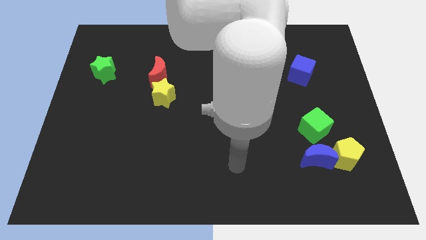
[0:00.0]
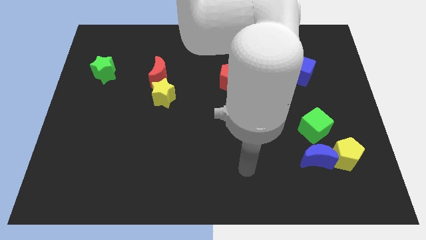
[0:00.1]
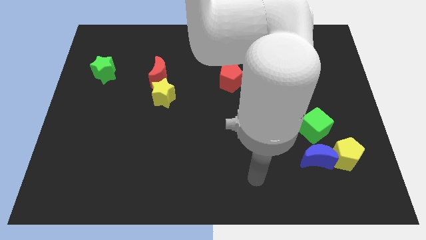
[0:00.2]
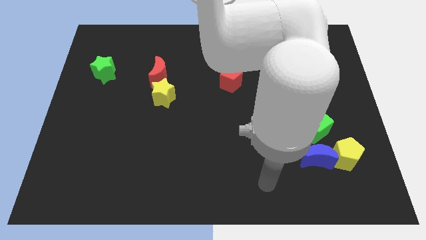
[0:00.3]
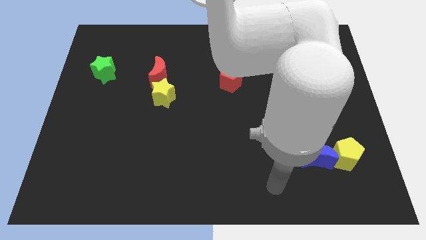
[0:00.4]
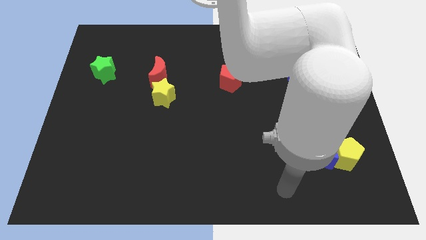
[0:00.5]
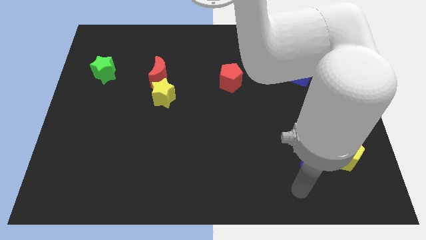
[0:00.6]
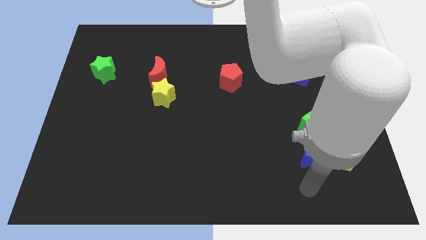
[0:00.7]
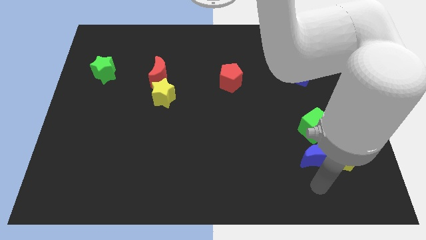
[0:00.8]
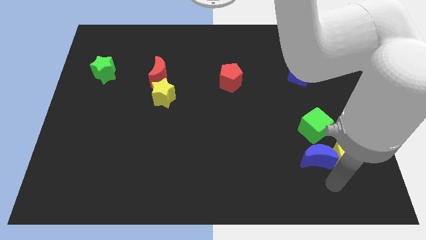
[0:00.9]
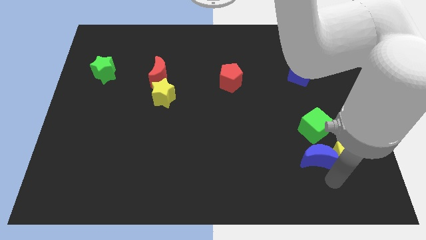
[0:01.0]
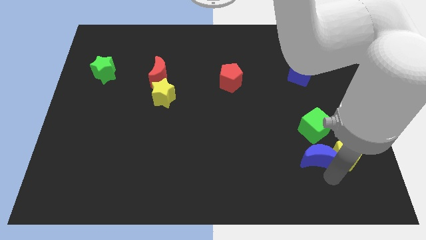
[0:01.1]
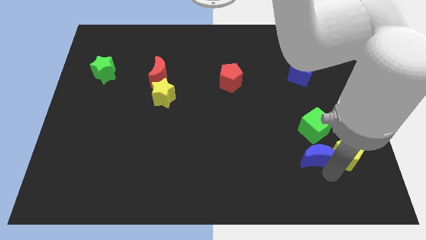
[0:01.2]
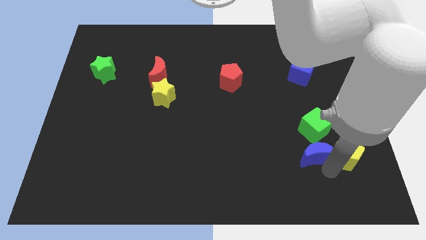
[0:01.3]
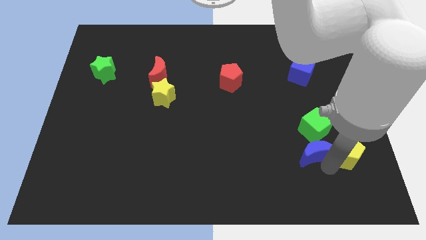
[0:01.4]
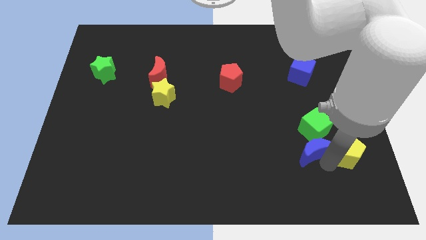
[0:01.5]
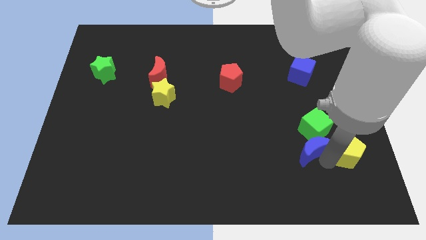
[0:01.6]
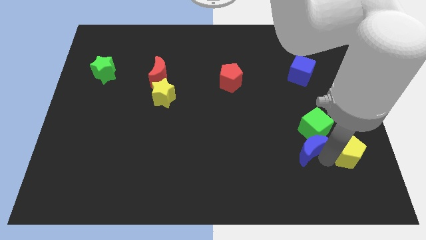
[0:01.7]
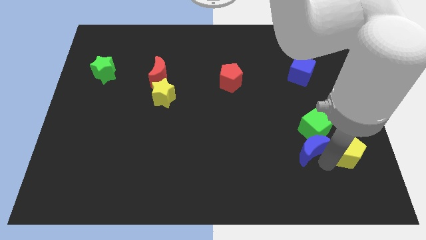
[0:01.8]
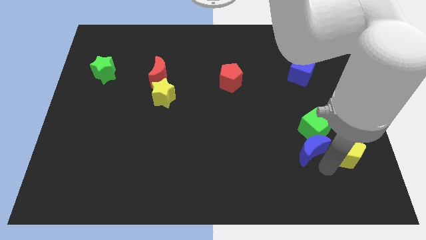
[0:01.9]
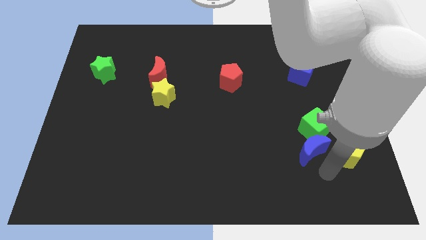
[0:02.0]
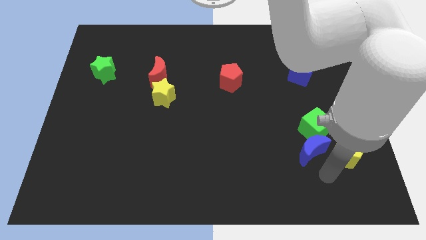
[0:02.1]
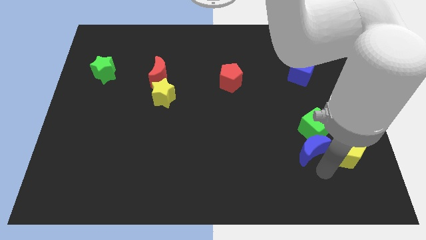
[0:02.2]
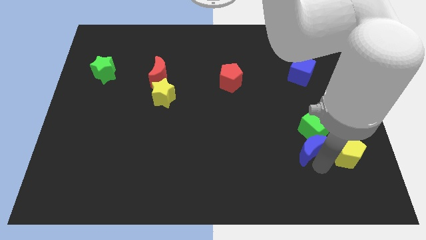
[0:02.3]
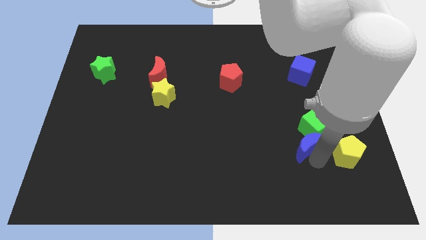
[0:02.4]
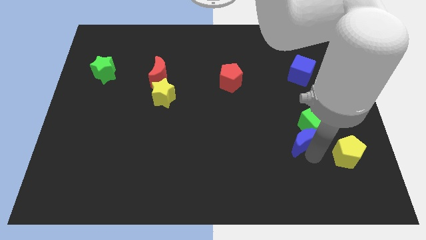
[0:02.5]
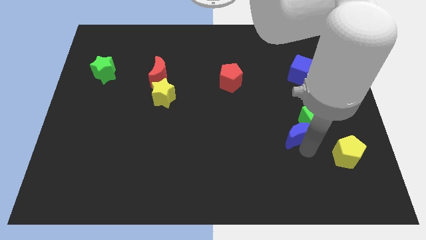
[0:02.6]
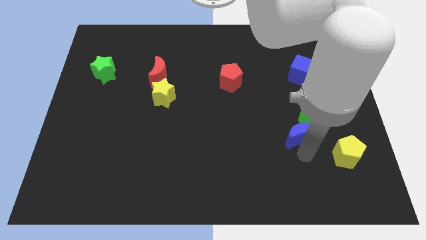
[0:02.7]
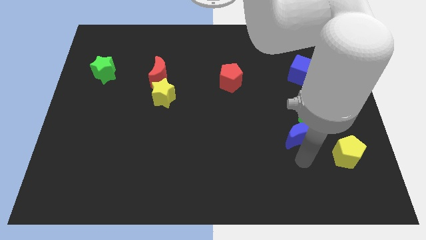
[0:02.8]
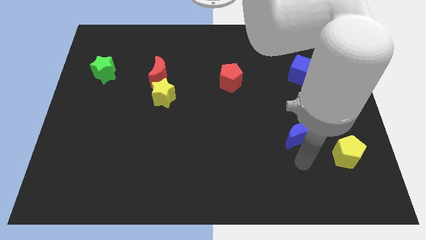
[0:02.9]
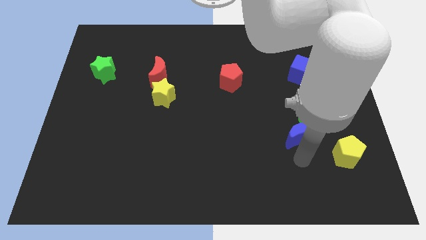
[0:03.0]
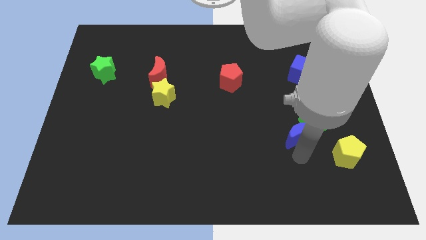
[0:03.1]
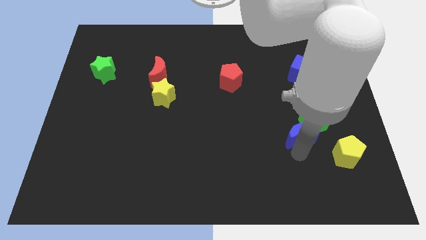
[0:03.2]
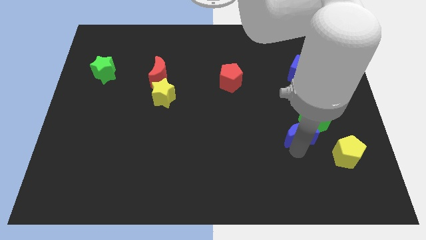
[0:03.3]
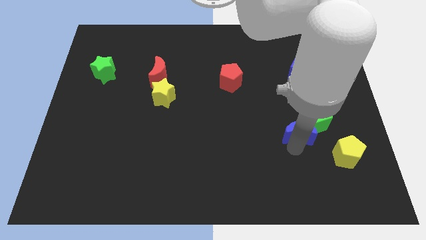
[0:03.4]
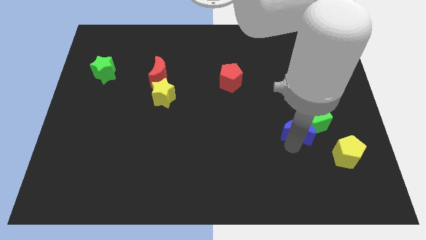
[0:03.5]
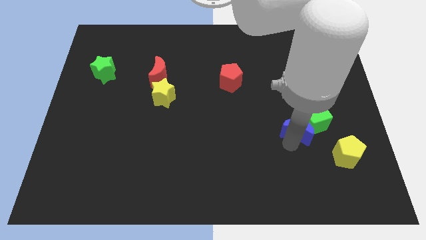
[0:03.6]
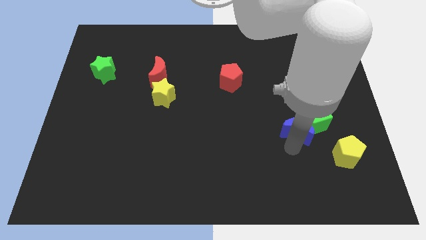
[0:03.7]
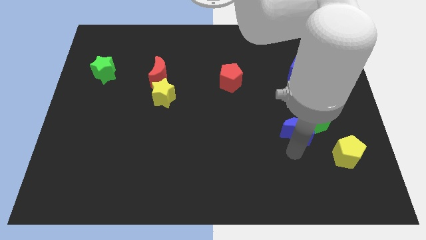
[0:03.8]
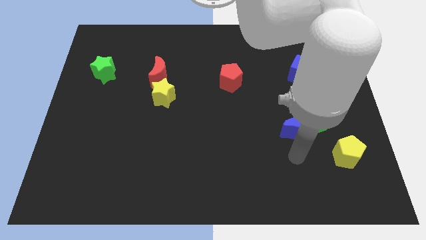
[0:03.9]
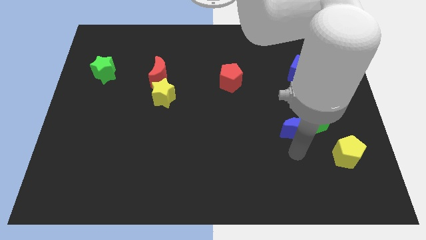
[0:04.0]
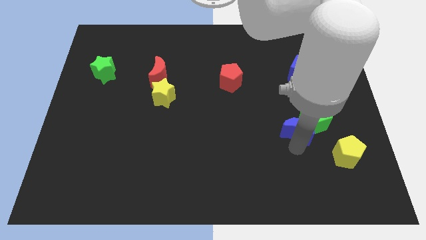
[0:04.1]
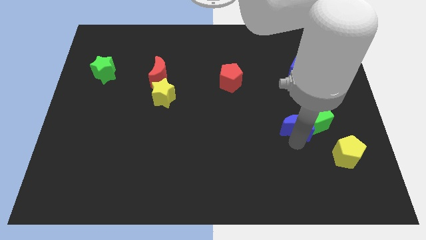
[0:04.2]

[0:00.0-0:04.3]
slightly move the blue moon upwards

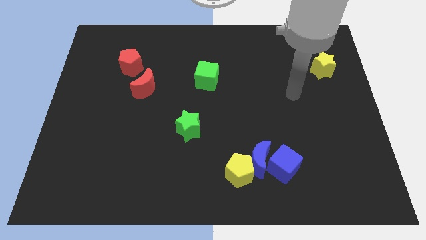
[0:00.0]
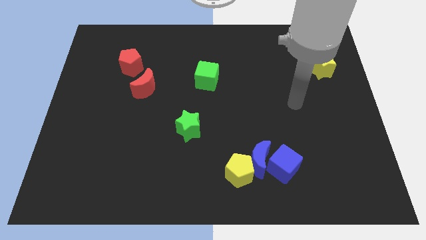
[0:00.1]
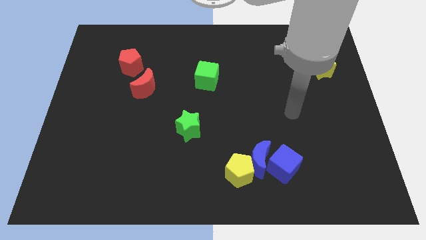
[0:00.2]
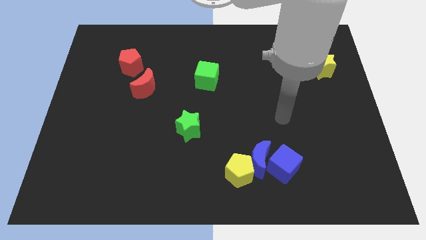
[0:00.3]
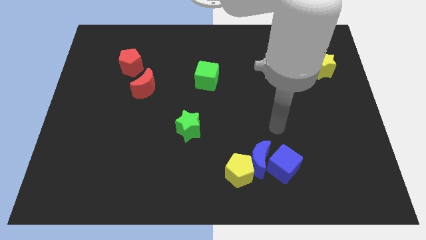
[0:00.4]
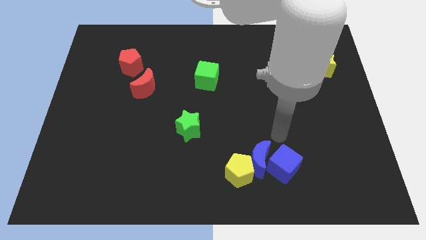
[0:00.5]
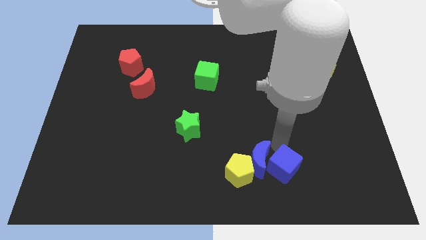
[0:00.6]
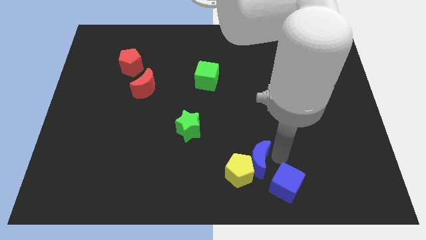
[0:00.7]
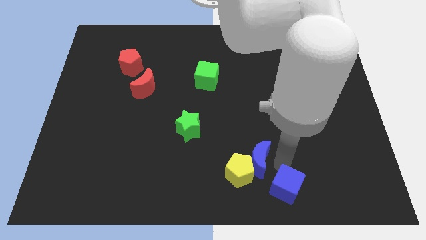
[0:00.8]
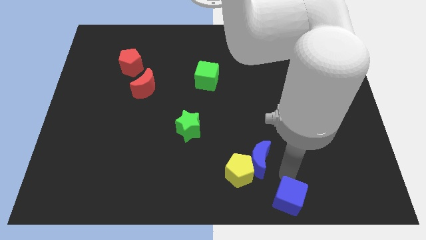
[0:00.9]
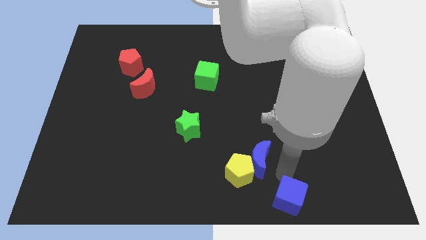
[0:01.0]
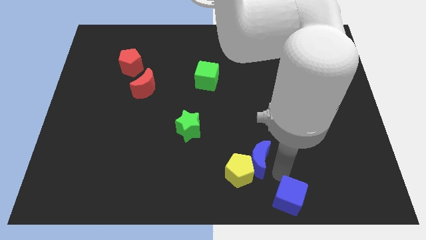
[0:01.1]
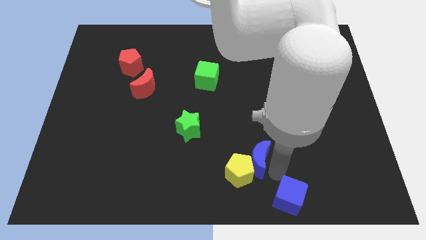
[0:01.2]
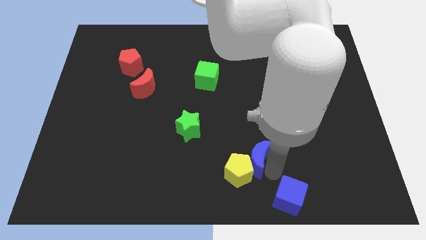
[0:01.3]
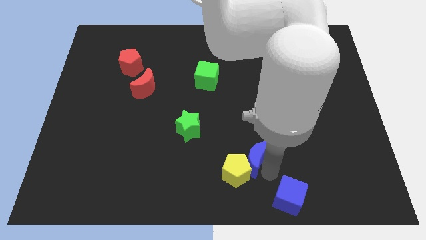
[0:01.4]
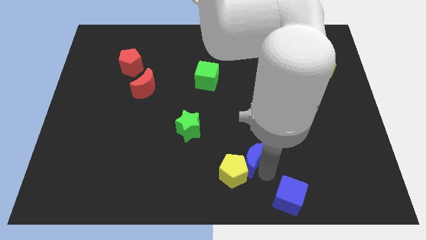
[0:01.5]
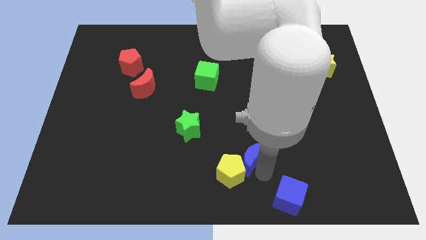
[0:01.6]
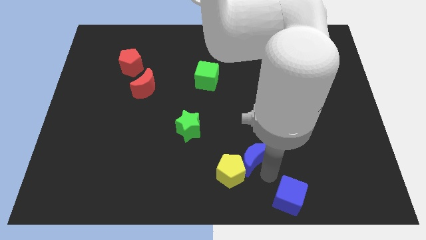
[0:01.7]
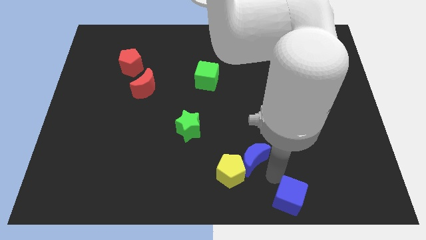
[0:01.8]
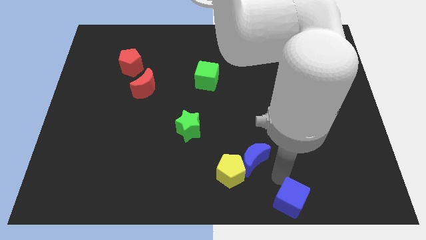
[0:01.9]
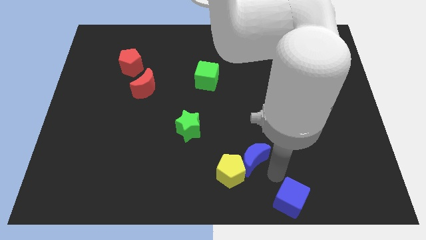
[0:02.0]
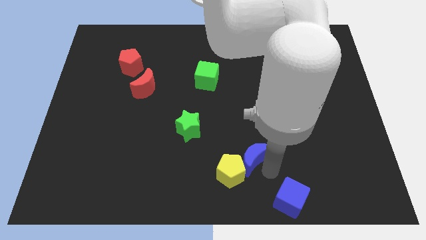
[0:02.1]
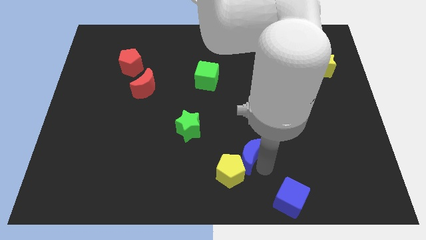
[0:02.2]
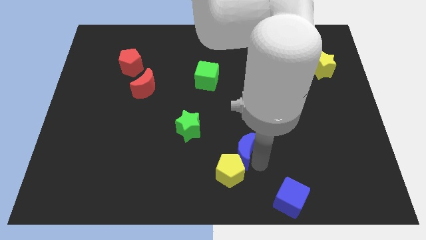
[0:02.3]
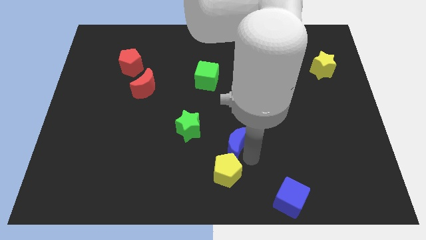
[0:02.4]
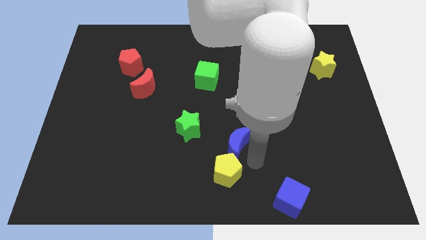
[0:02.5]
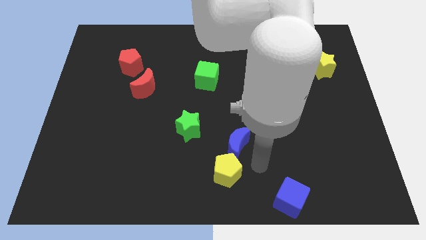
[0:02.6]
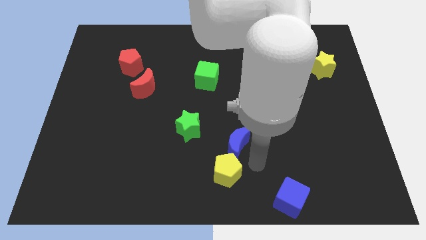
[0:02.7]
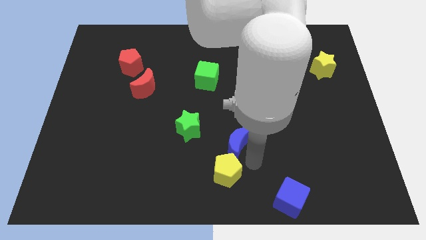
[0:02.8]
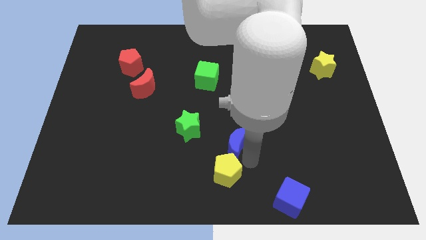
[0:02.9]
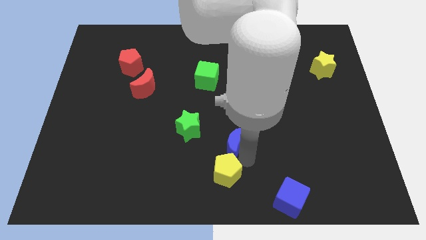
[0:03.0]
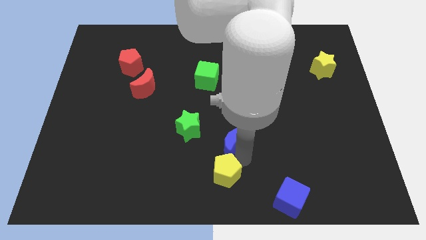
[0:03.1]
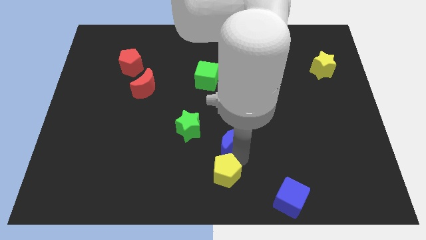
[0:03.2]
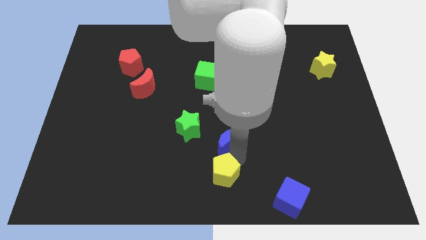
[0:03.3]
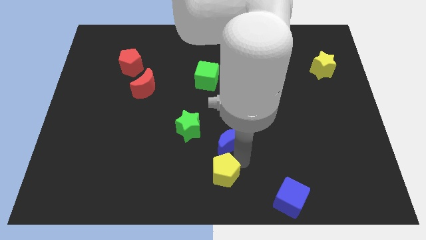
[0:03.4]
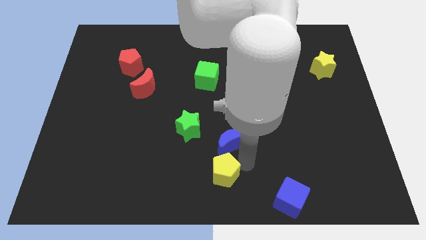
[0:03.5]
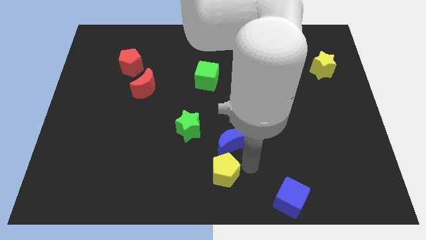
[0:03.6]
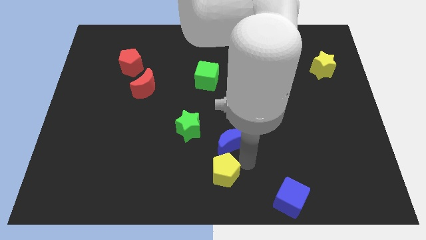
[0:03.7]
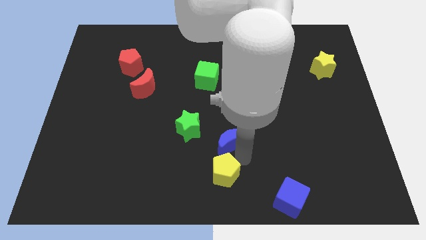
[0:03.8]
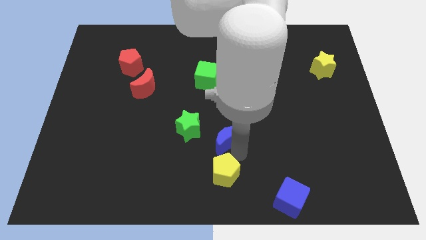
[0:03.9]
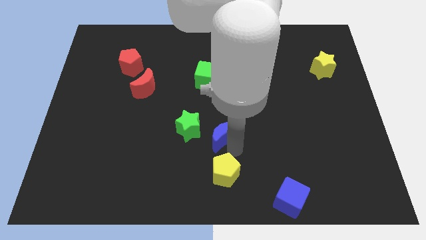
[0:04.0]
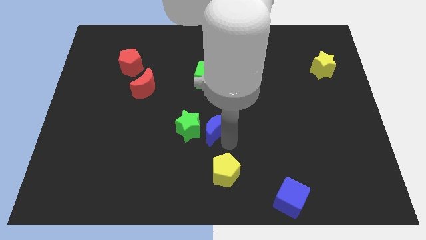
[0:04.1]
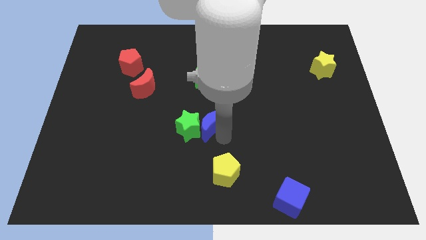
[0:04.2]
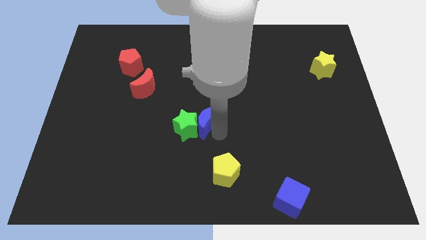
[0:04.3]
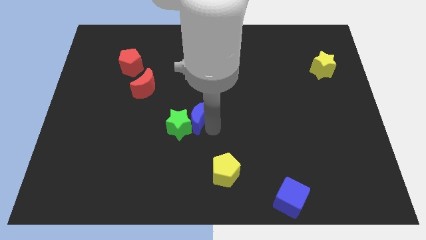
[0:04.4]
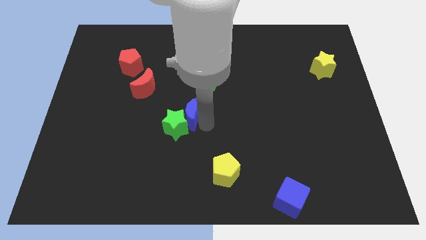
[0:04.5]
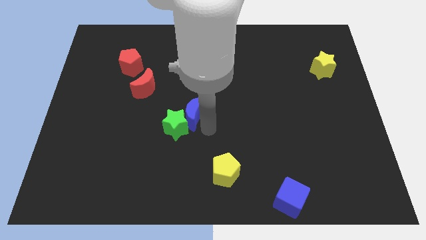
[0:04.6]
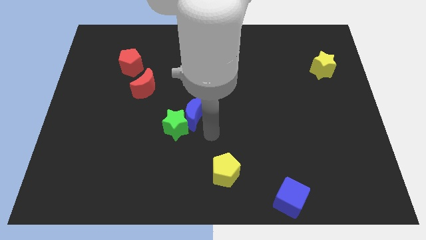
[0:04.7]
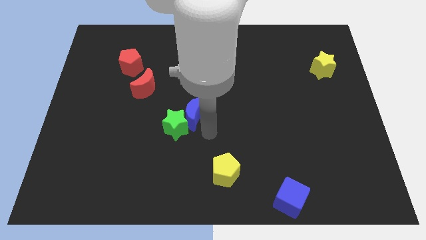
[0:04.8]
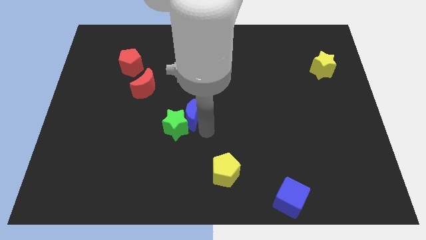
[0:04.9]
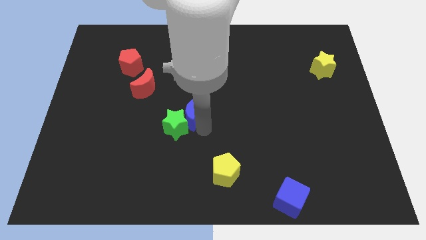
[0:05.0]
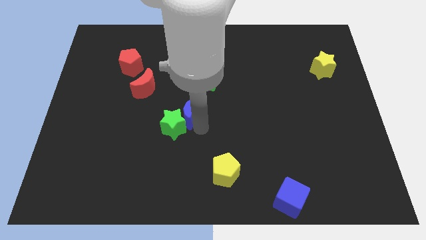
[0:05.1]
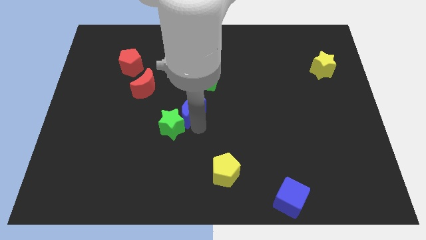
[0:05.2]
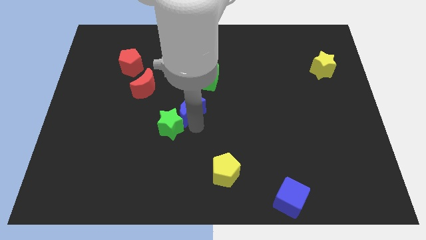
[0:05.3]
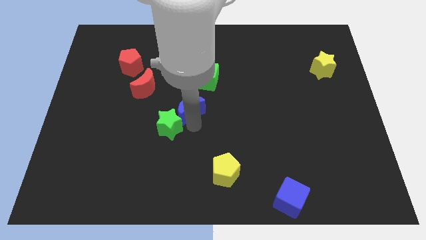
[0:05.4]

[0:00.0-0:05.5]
move the blue moon upwards and left
